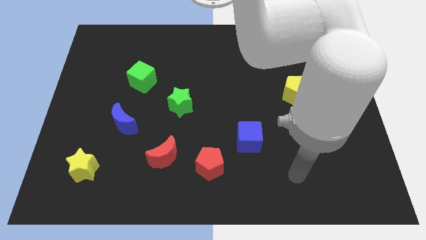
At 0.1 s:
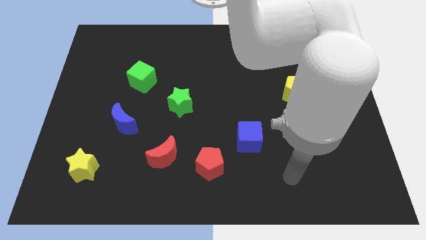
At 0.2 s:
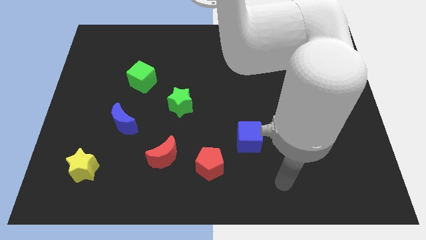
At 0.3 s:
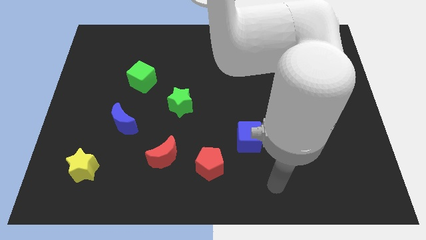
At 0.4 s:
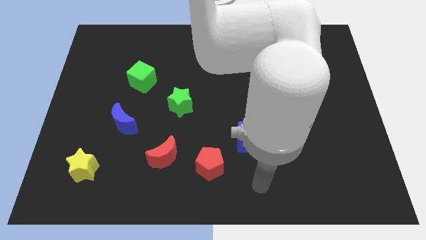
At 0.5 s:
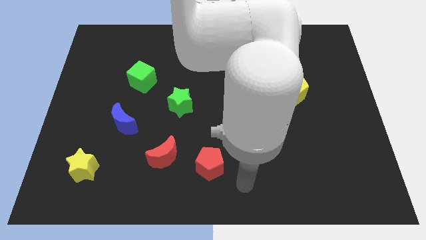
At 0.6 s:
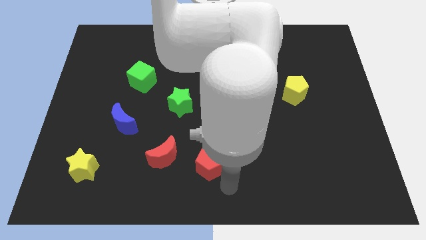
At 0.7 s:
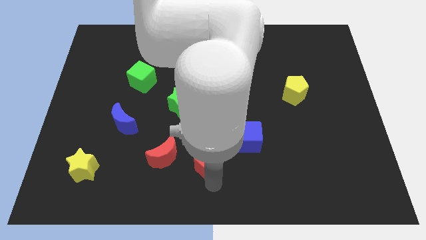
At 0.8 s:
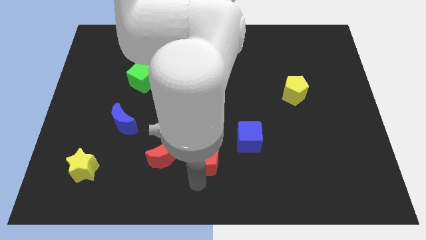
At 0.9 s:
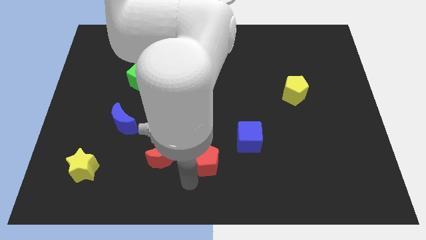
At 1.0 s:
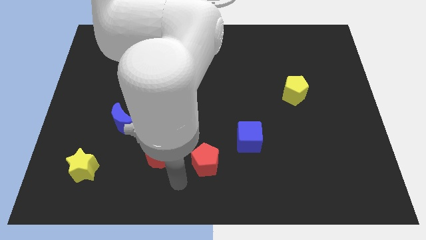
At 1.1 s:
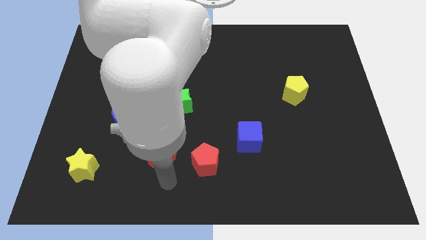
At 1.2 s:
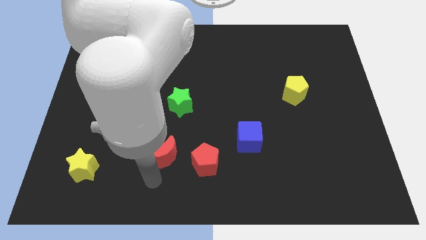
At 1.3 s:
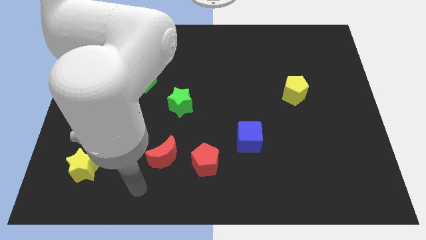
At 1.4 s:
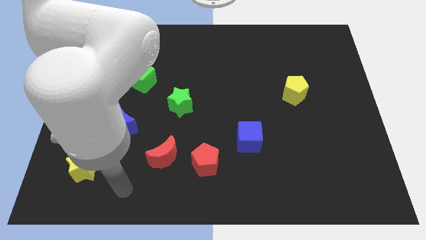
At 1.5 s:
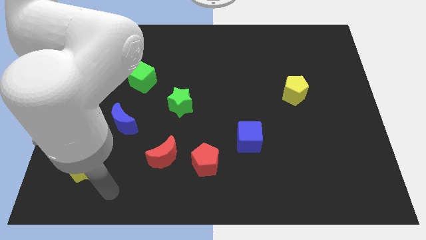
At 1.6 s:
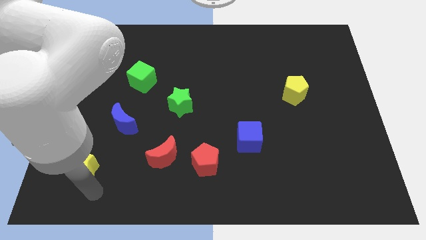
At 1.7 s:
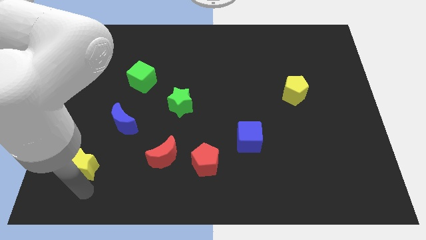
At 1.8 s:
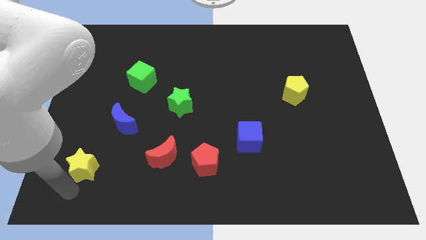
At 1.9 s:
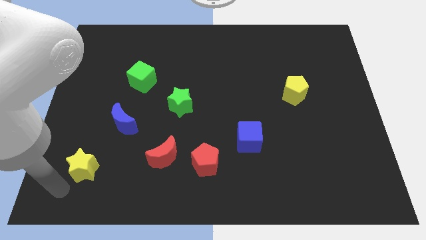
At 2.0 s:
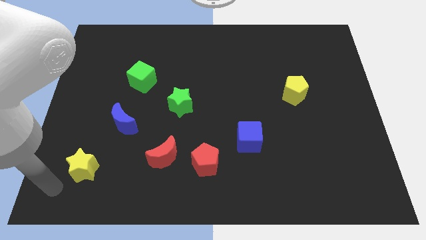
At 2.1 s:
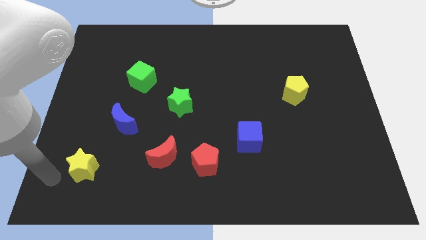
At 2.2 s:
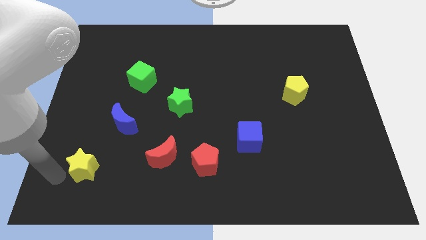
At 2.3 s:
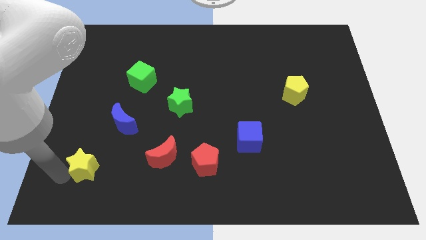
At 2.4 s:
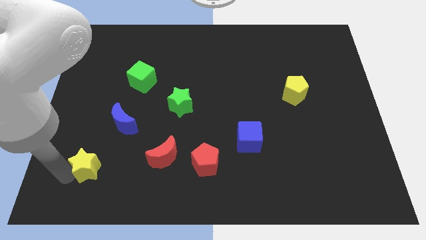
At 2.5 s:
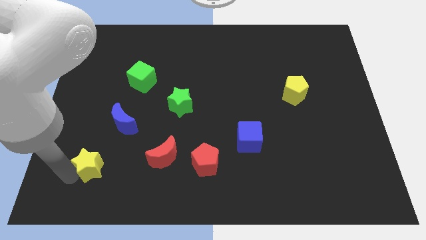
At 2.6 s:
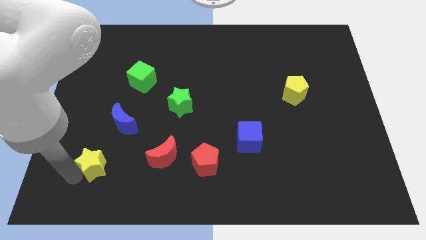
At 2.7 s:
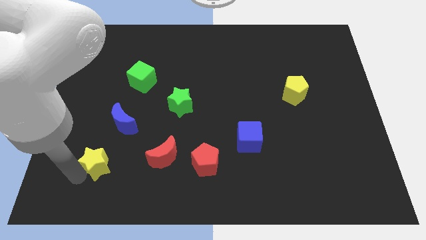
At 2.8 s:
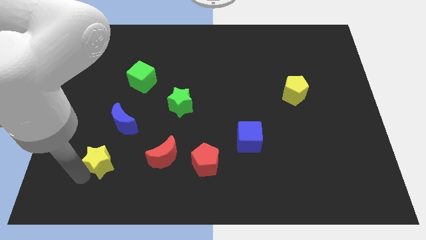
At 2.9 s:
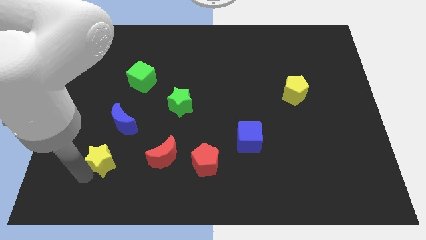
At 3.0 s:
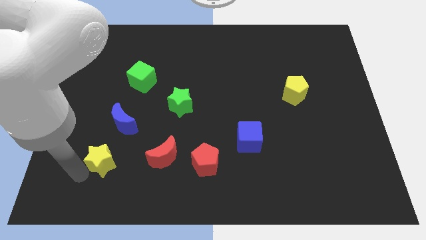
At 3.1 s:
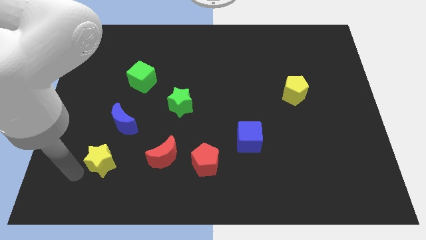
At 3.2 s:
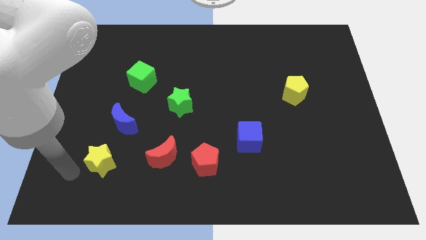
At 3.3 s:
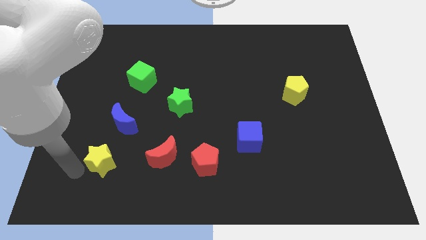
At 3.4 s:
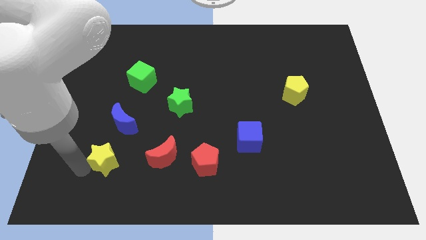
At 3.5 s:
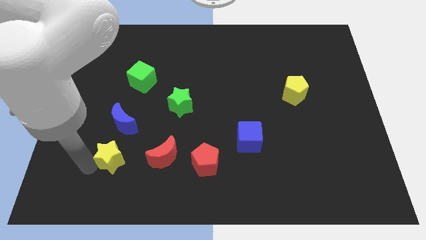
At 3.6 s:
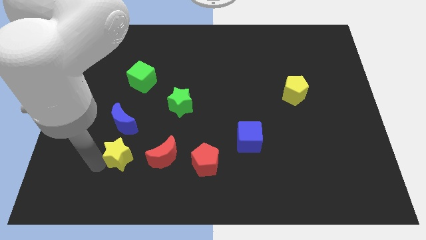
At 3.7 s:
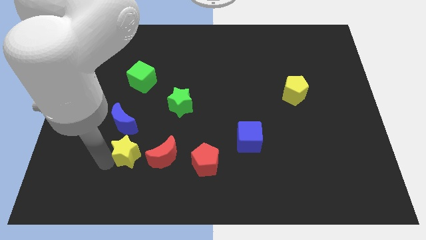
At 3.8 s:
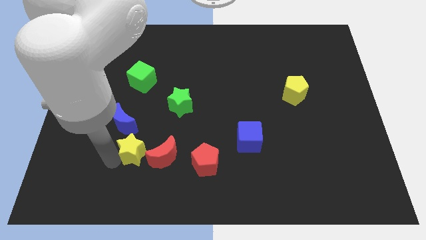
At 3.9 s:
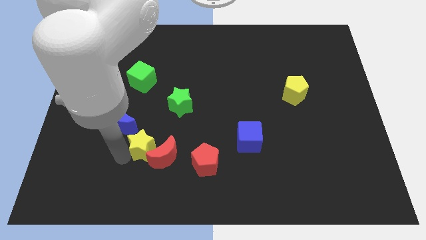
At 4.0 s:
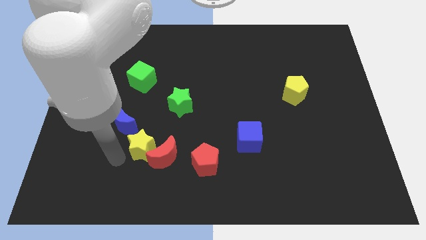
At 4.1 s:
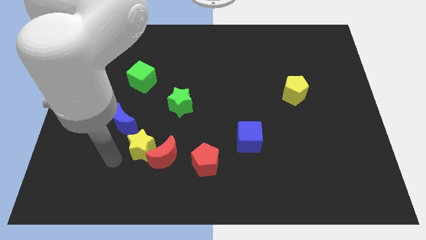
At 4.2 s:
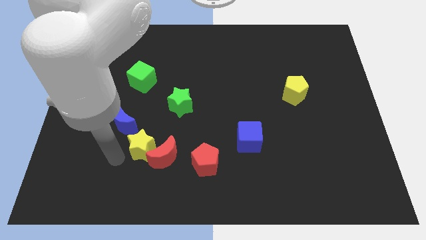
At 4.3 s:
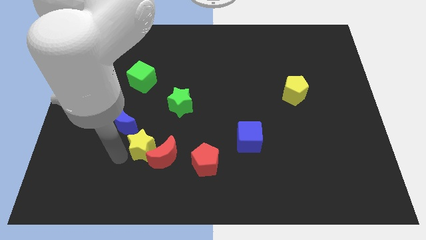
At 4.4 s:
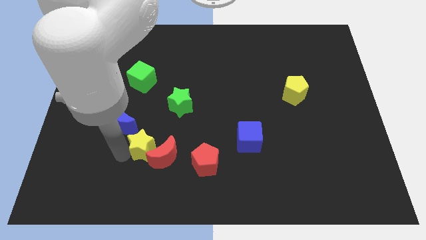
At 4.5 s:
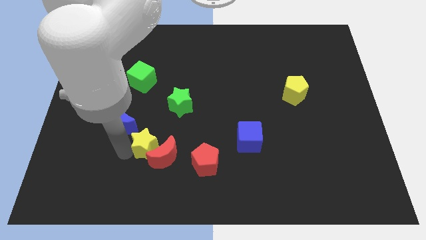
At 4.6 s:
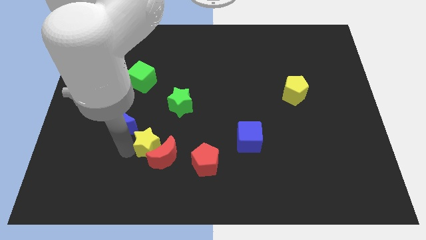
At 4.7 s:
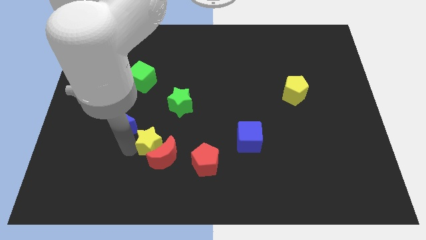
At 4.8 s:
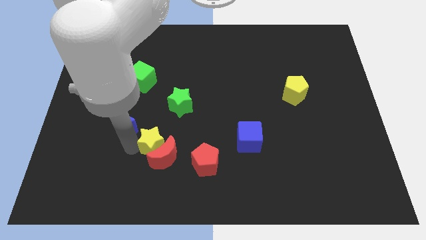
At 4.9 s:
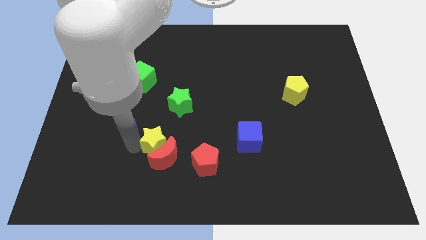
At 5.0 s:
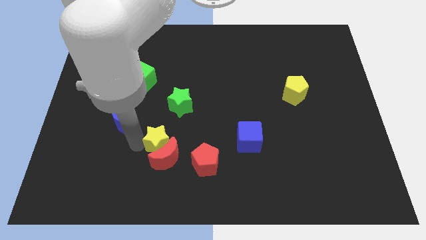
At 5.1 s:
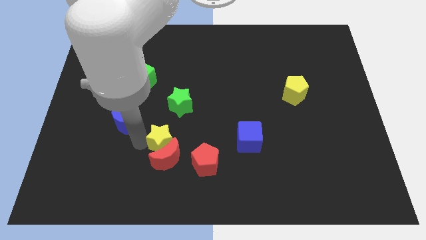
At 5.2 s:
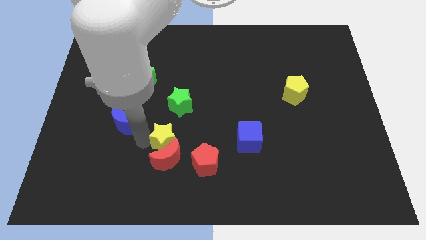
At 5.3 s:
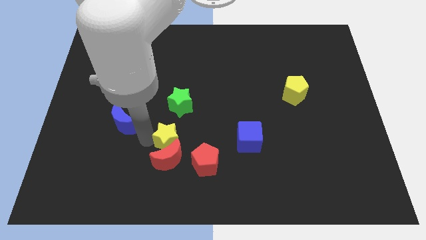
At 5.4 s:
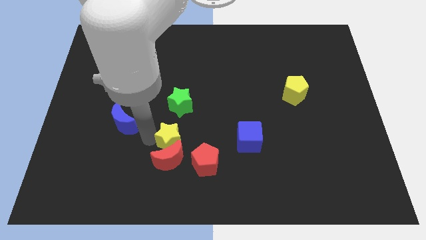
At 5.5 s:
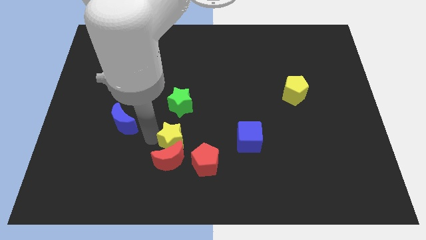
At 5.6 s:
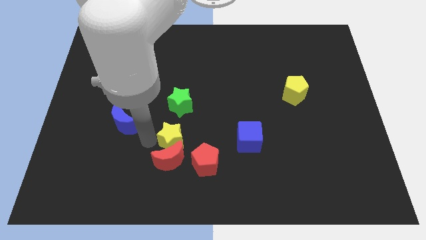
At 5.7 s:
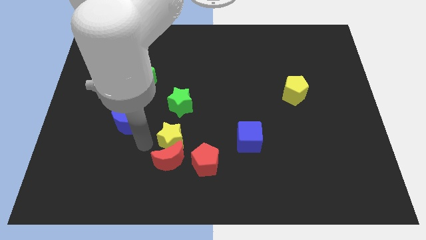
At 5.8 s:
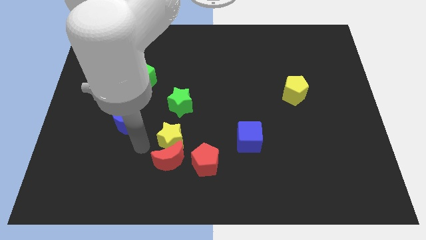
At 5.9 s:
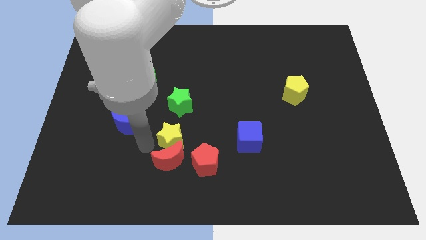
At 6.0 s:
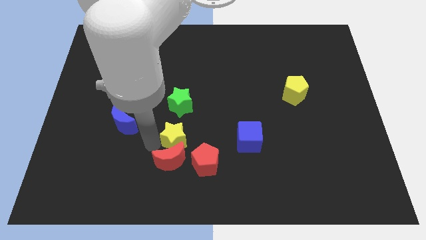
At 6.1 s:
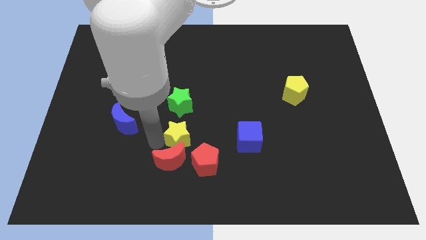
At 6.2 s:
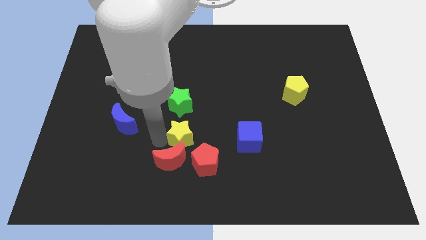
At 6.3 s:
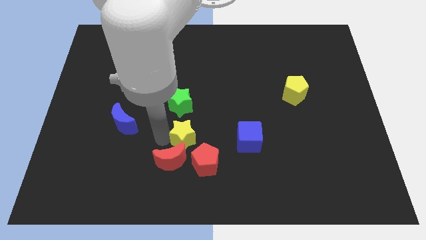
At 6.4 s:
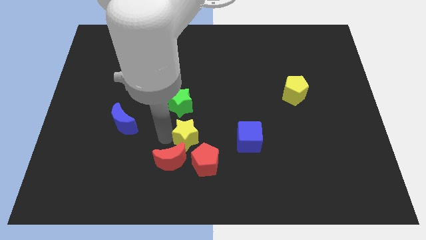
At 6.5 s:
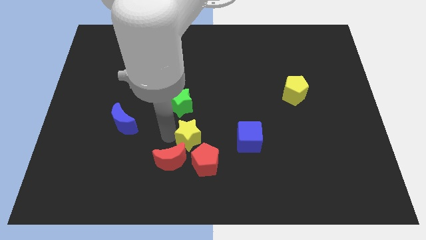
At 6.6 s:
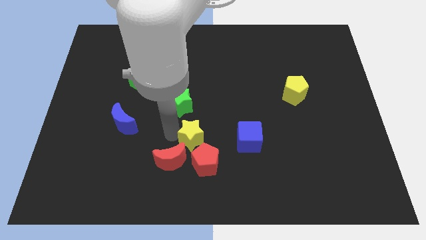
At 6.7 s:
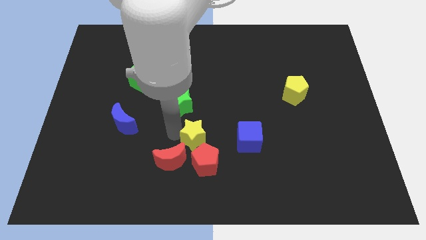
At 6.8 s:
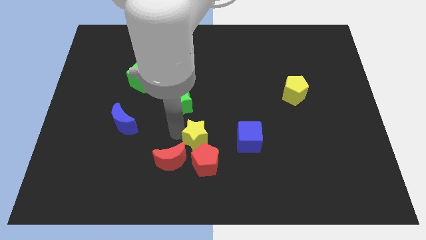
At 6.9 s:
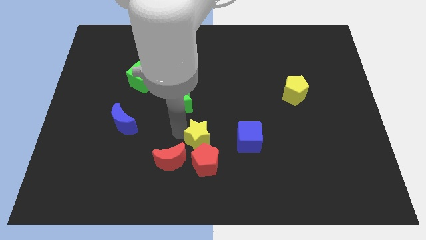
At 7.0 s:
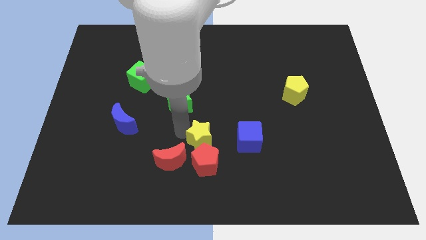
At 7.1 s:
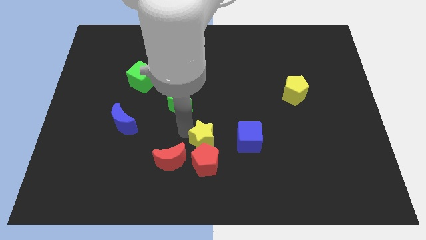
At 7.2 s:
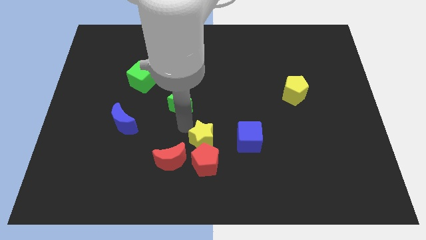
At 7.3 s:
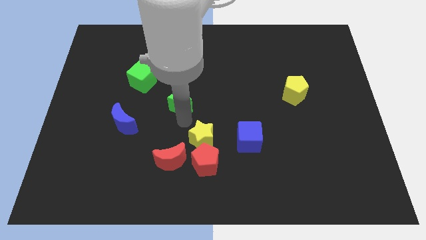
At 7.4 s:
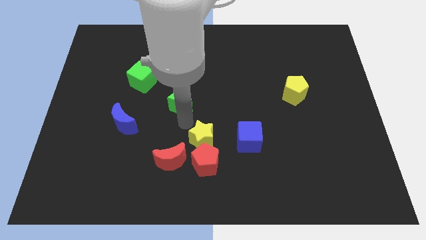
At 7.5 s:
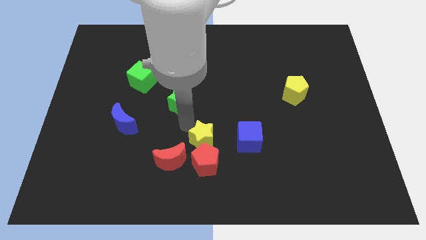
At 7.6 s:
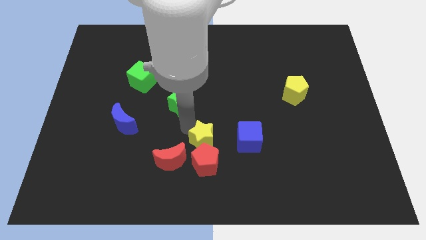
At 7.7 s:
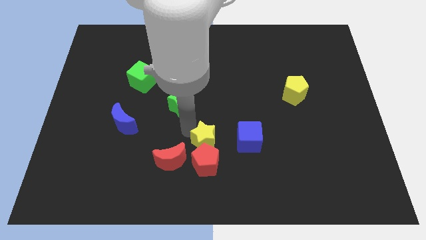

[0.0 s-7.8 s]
slide the yellow star just right of the red moon
